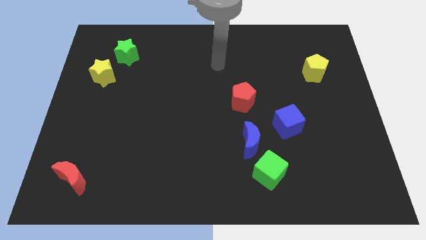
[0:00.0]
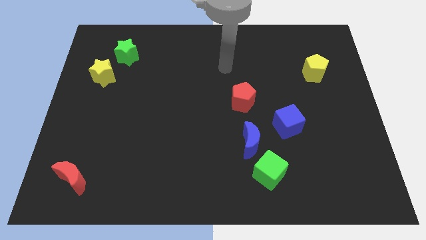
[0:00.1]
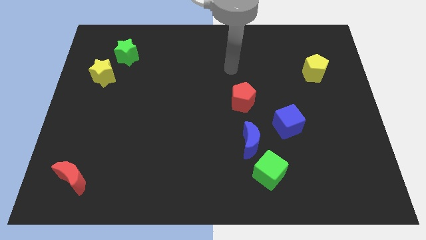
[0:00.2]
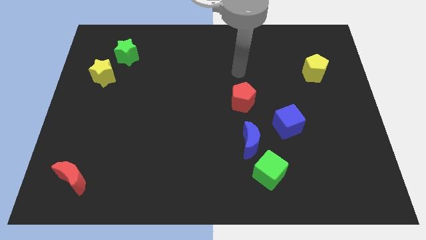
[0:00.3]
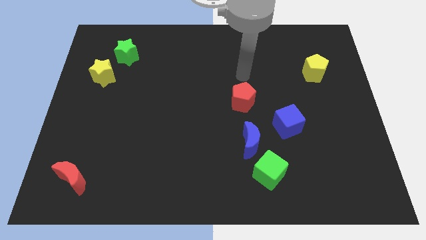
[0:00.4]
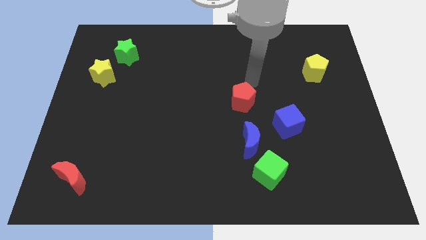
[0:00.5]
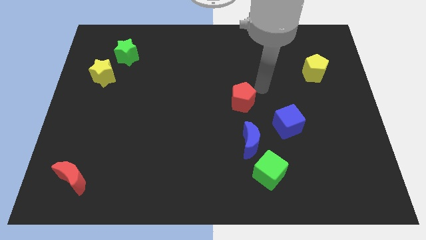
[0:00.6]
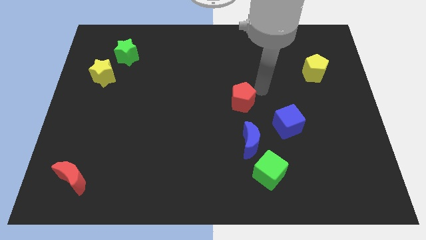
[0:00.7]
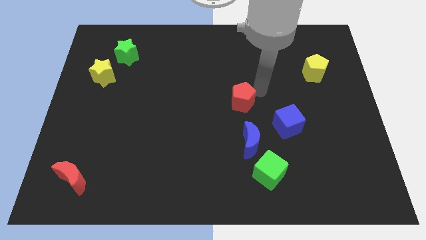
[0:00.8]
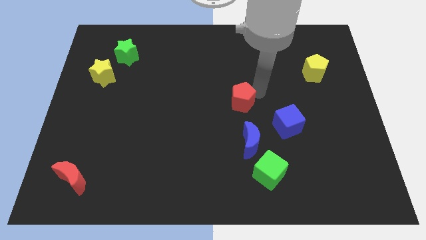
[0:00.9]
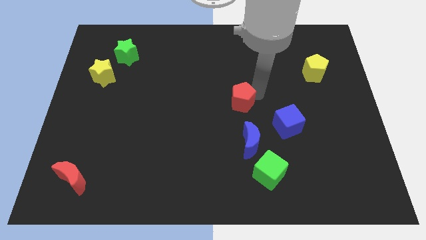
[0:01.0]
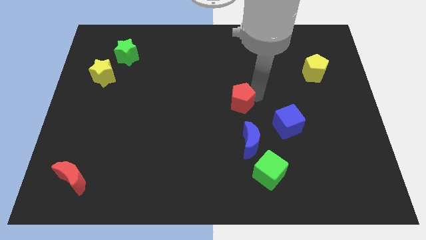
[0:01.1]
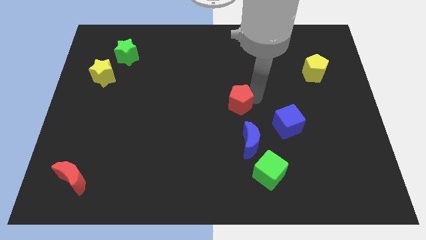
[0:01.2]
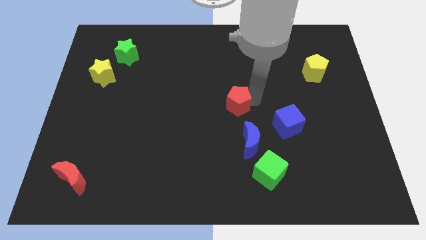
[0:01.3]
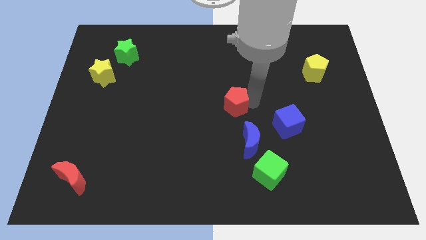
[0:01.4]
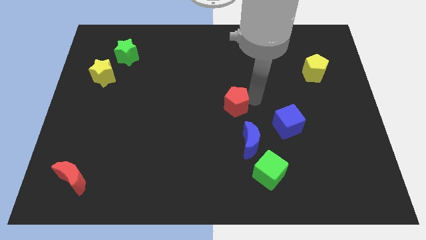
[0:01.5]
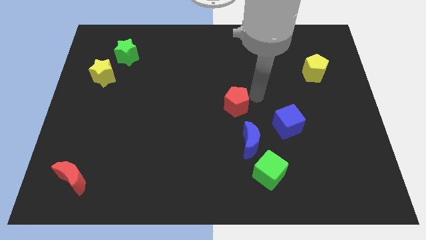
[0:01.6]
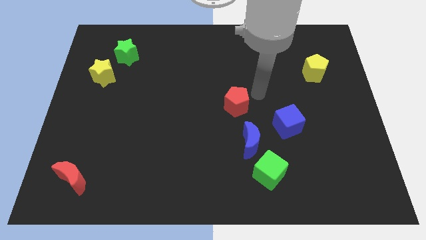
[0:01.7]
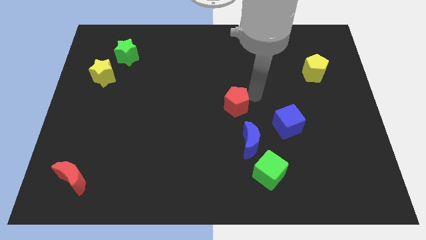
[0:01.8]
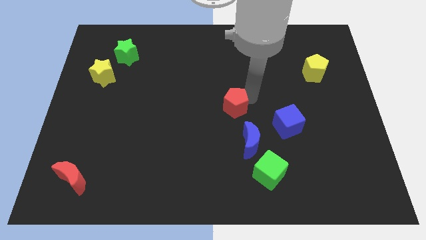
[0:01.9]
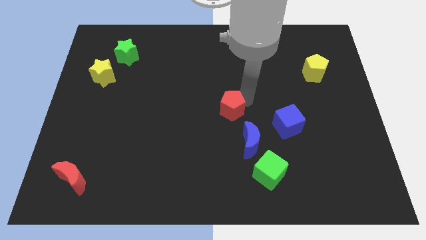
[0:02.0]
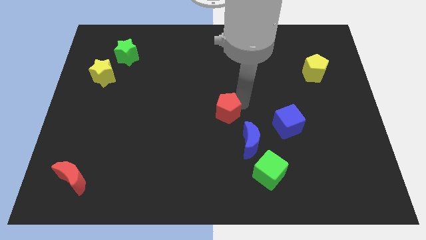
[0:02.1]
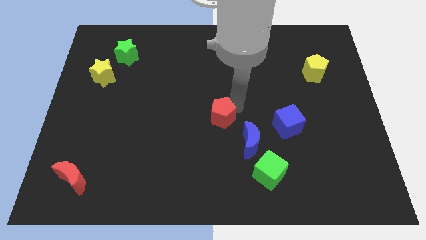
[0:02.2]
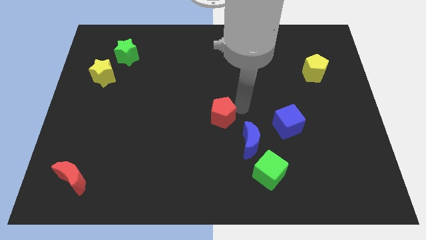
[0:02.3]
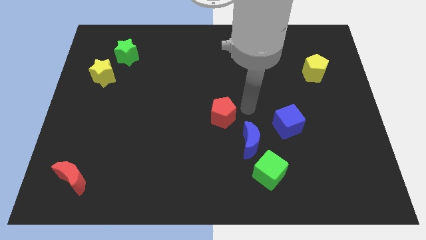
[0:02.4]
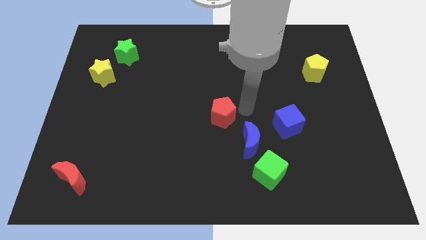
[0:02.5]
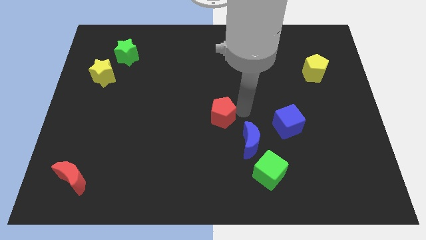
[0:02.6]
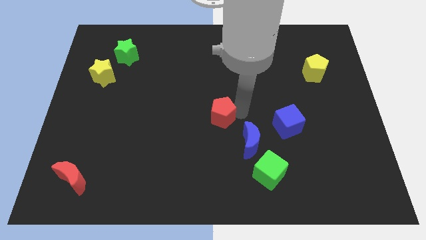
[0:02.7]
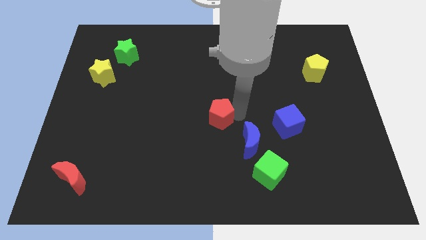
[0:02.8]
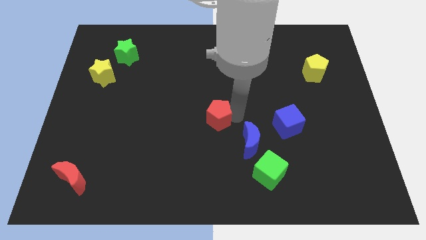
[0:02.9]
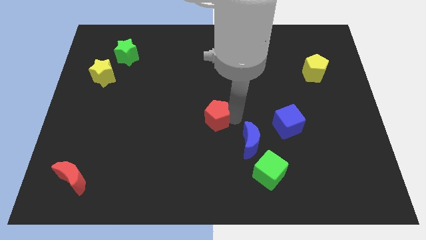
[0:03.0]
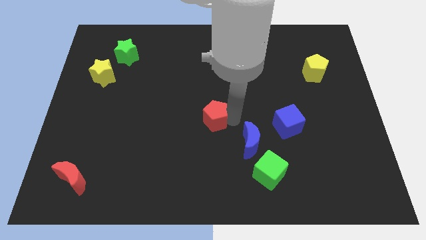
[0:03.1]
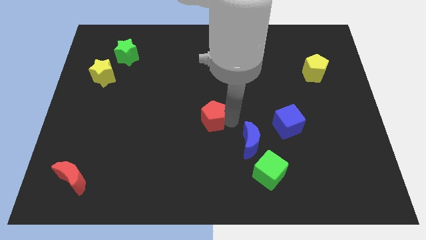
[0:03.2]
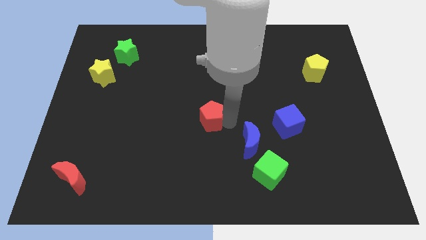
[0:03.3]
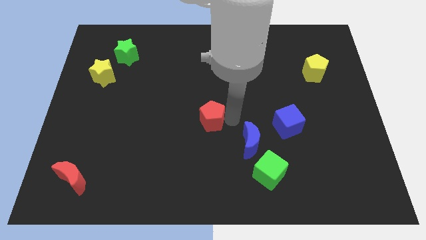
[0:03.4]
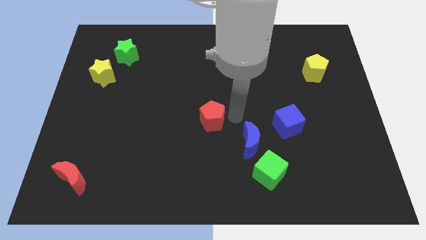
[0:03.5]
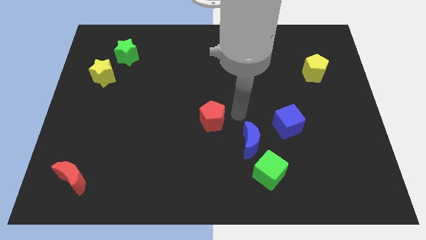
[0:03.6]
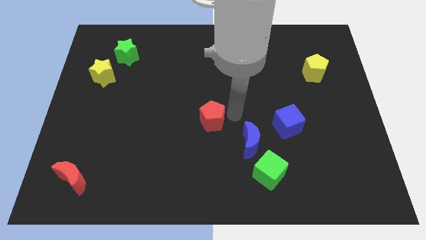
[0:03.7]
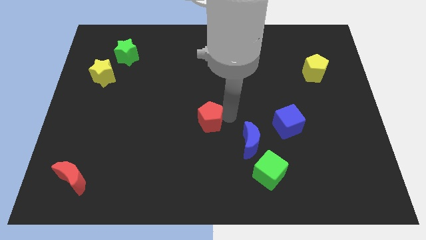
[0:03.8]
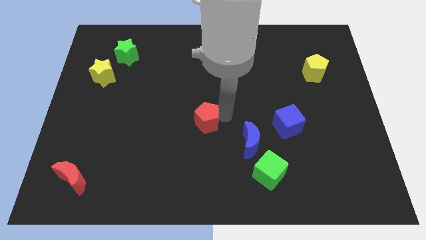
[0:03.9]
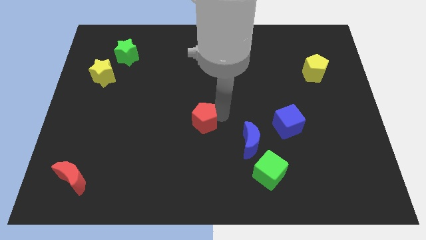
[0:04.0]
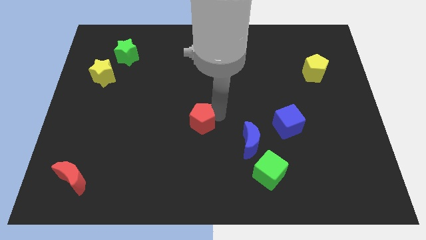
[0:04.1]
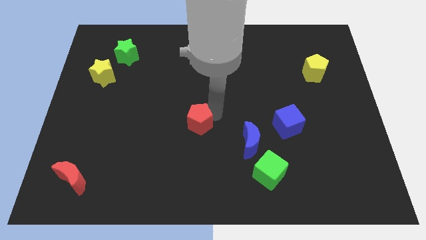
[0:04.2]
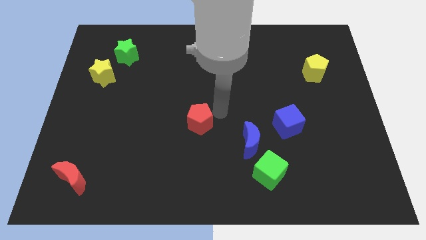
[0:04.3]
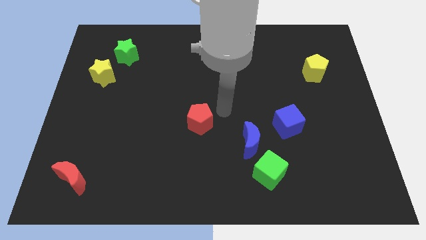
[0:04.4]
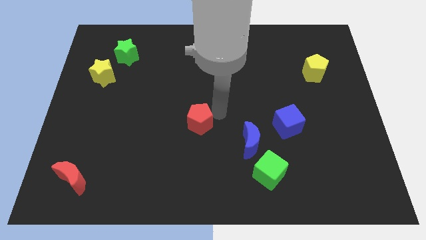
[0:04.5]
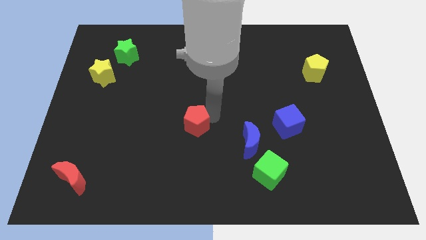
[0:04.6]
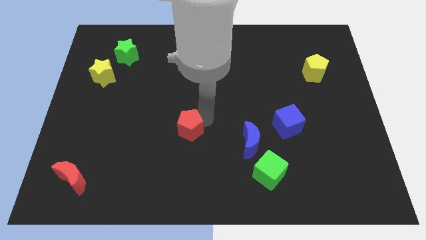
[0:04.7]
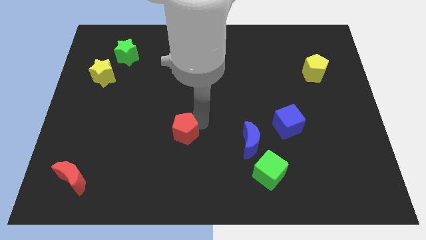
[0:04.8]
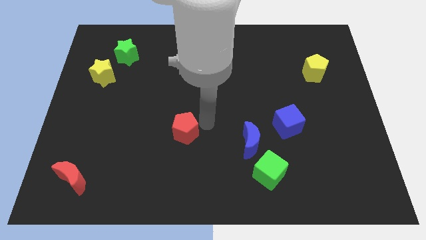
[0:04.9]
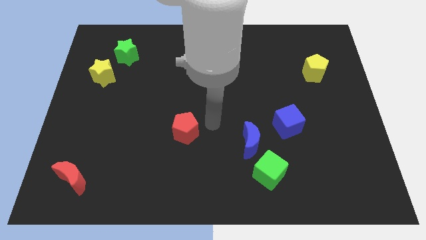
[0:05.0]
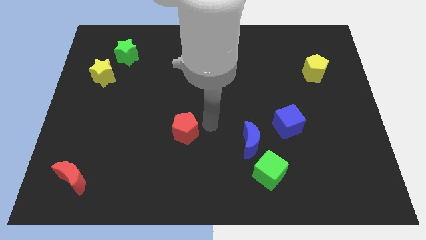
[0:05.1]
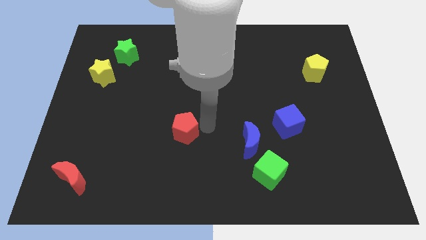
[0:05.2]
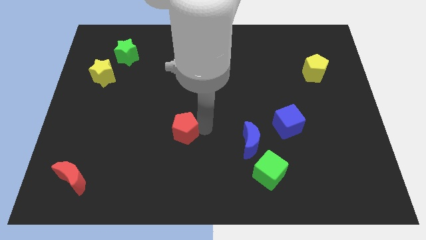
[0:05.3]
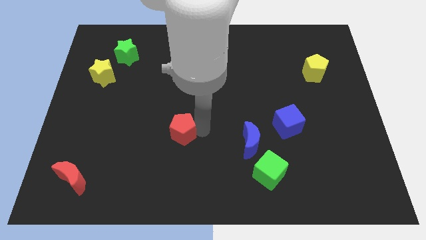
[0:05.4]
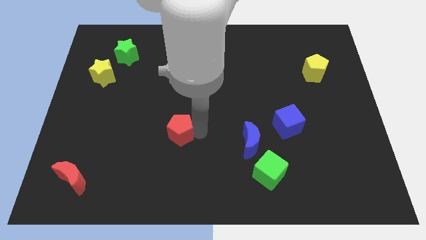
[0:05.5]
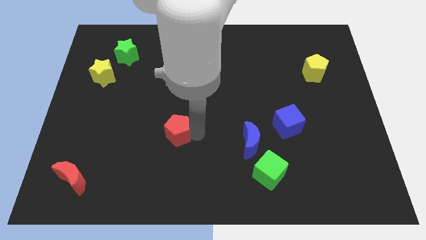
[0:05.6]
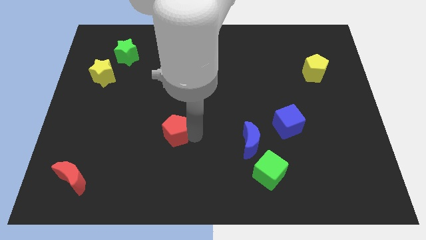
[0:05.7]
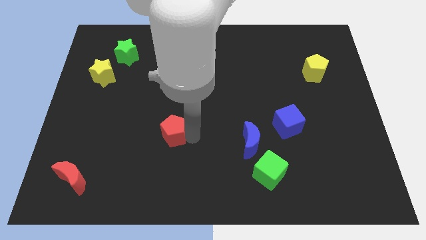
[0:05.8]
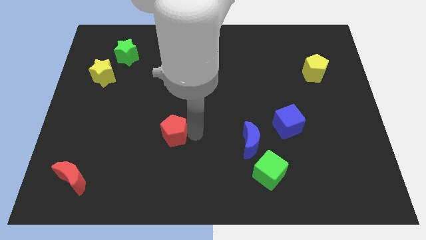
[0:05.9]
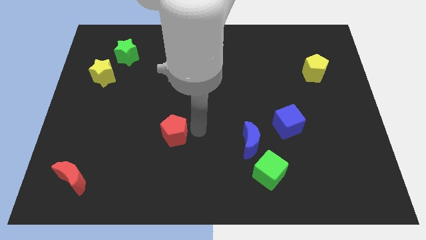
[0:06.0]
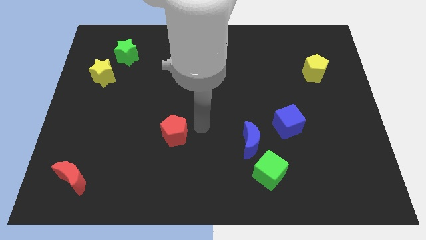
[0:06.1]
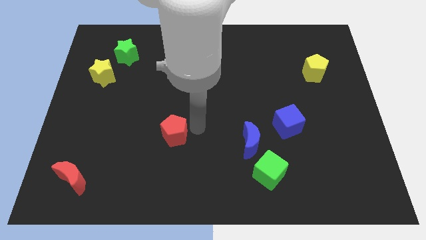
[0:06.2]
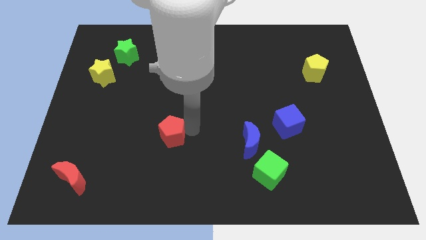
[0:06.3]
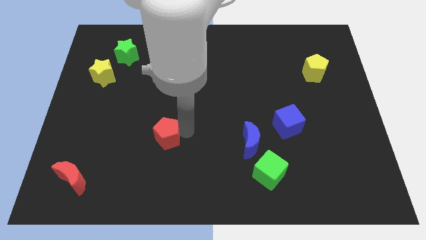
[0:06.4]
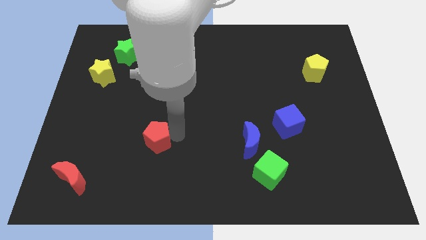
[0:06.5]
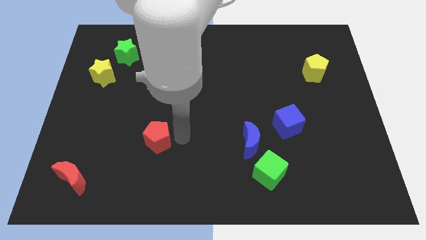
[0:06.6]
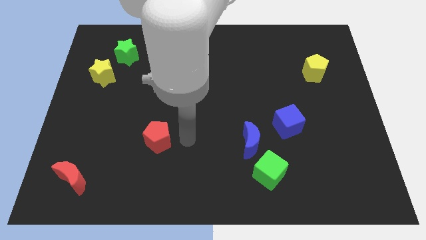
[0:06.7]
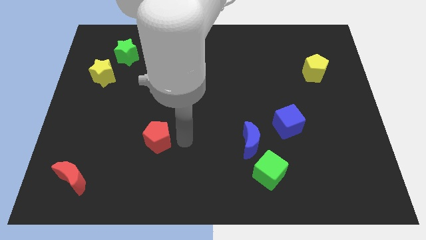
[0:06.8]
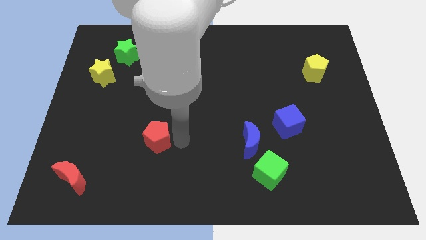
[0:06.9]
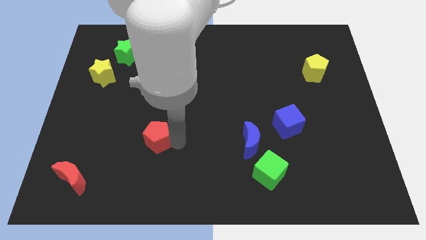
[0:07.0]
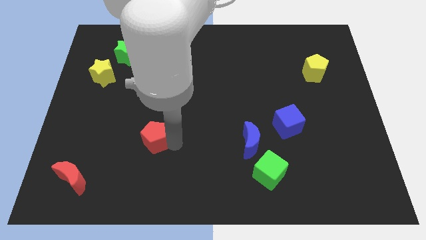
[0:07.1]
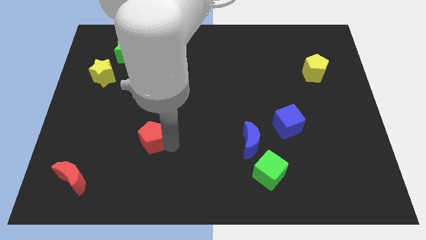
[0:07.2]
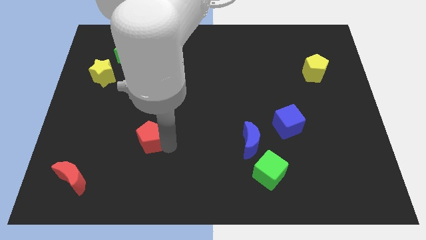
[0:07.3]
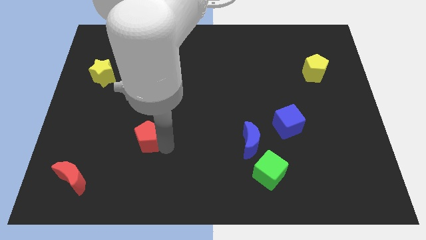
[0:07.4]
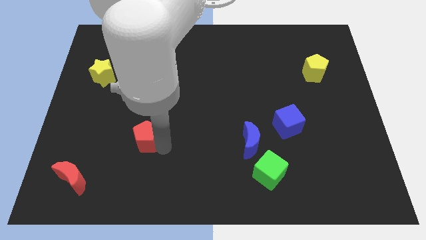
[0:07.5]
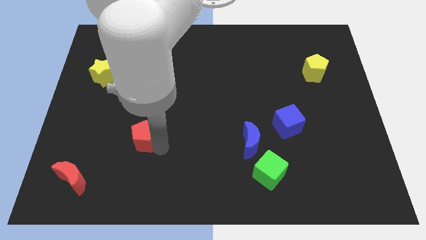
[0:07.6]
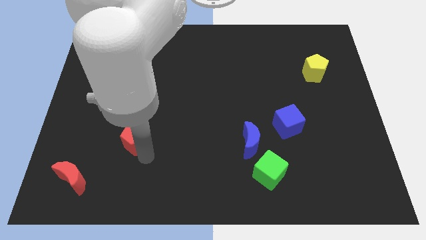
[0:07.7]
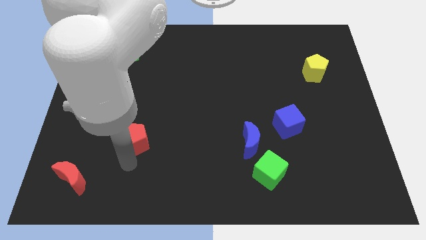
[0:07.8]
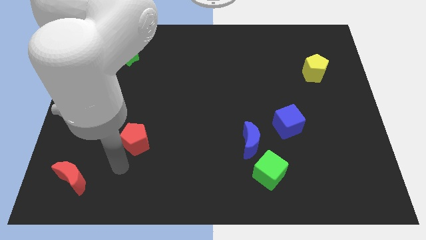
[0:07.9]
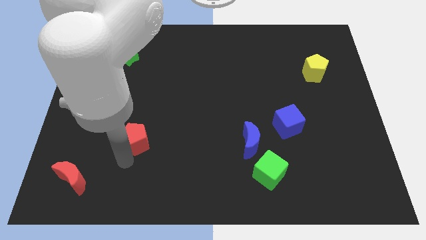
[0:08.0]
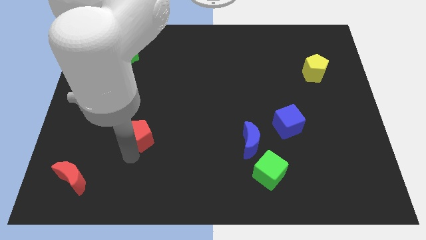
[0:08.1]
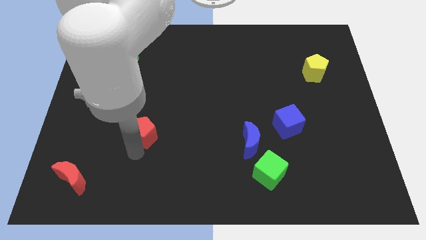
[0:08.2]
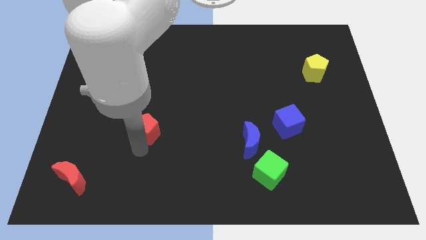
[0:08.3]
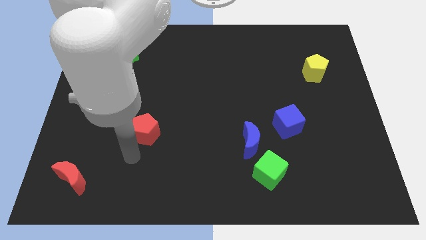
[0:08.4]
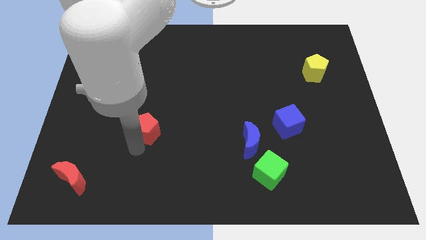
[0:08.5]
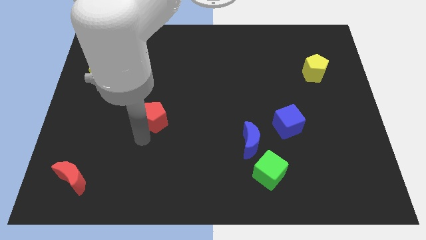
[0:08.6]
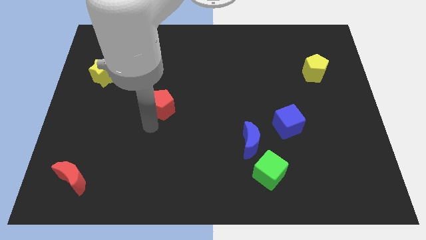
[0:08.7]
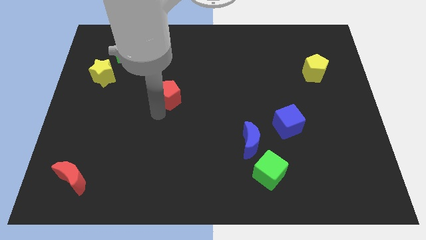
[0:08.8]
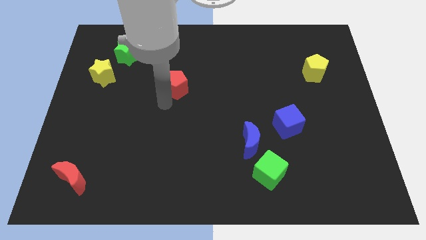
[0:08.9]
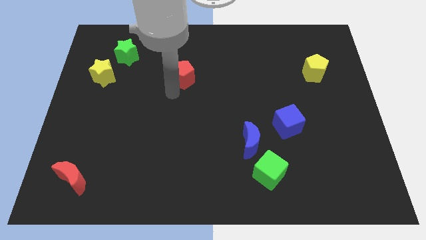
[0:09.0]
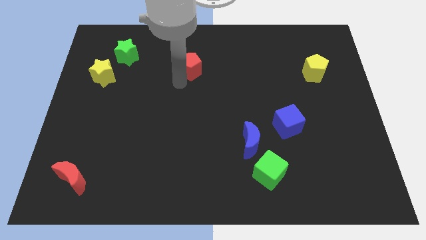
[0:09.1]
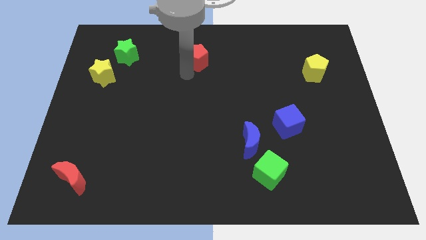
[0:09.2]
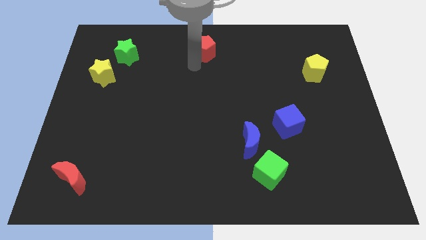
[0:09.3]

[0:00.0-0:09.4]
move the red pentagon to the top
